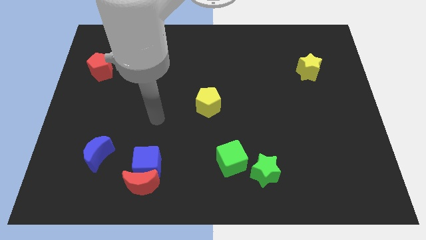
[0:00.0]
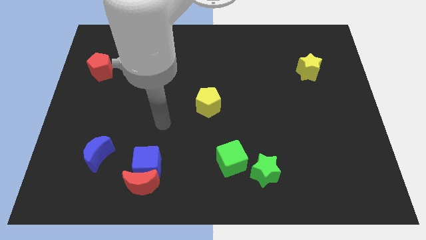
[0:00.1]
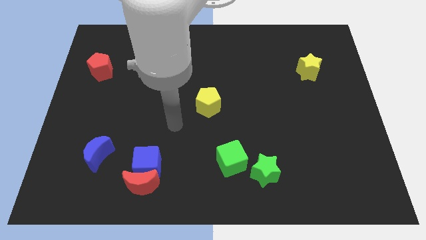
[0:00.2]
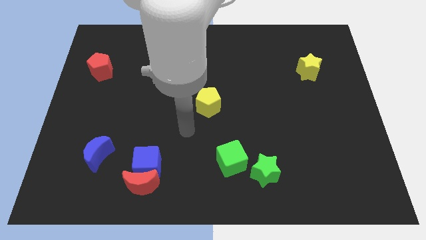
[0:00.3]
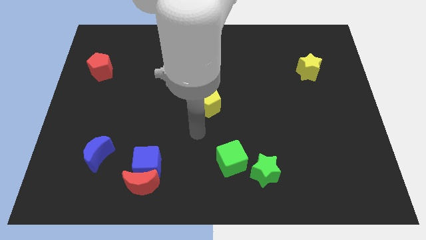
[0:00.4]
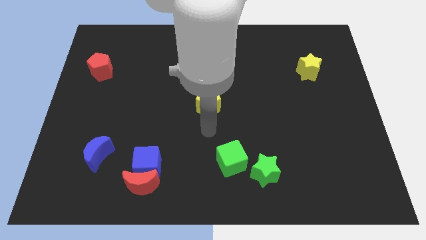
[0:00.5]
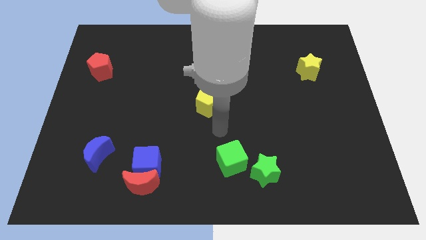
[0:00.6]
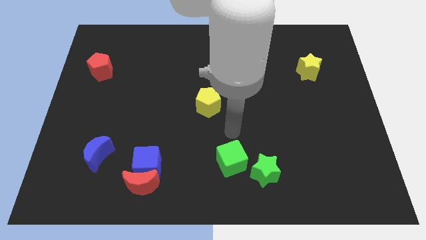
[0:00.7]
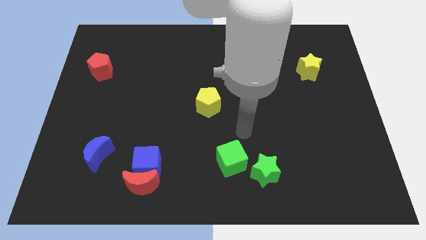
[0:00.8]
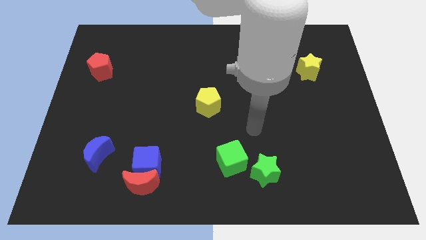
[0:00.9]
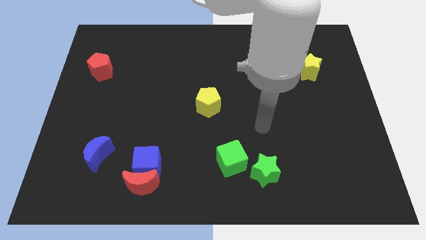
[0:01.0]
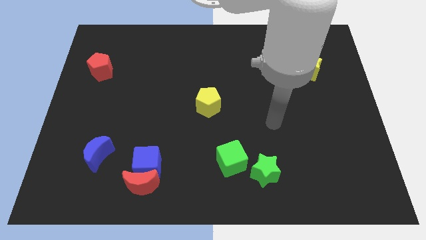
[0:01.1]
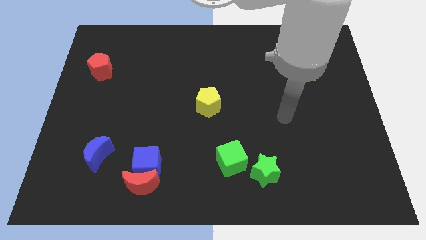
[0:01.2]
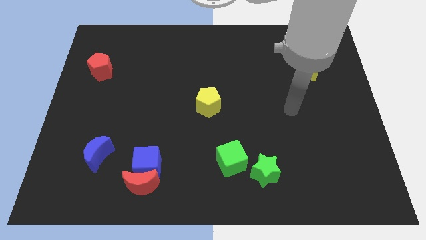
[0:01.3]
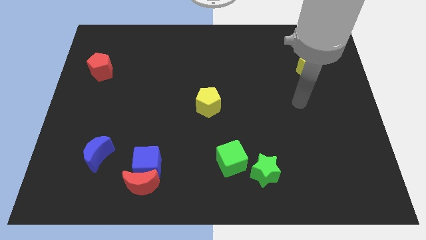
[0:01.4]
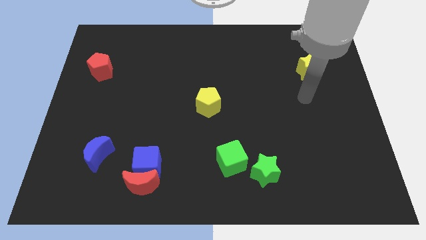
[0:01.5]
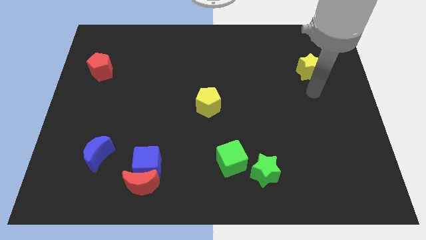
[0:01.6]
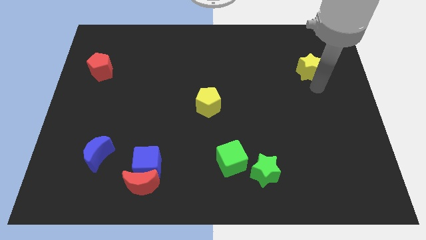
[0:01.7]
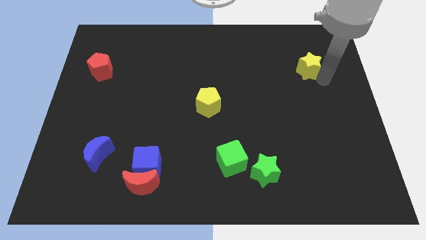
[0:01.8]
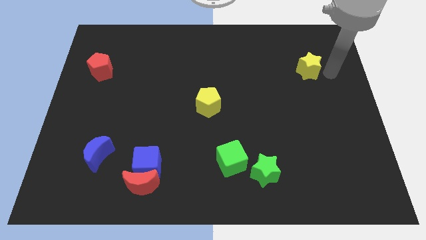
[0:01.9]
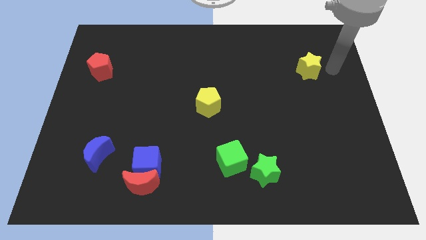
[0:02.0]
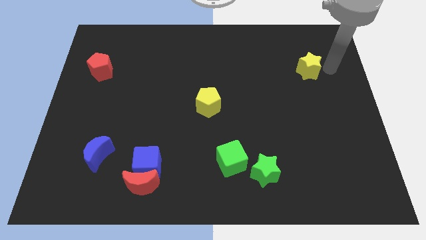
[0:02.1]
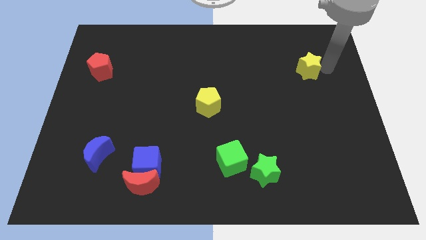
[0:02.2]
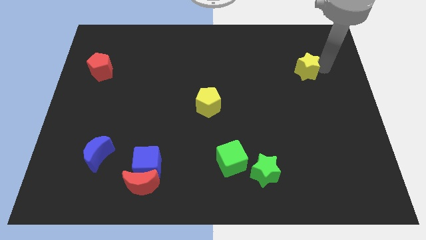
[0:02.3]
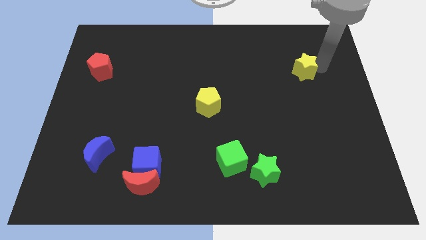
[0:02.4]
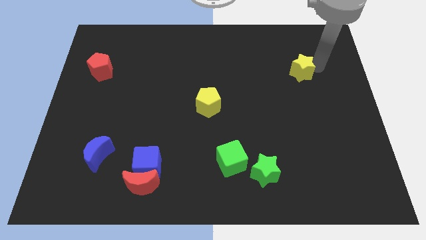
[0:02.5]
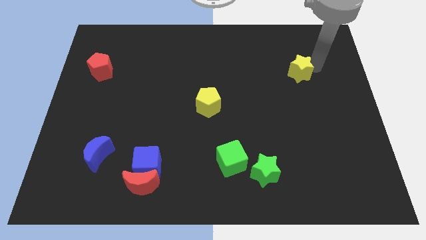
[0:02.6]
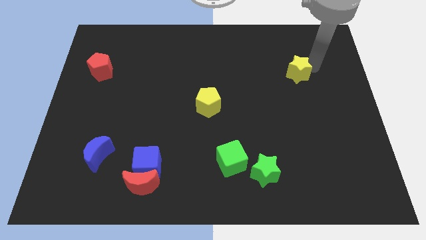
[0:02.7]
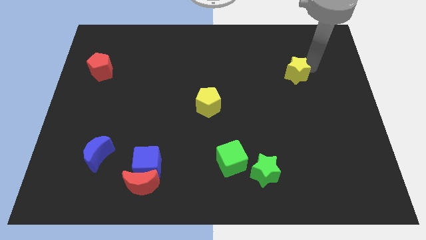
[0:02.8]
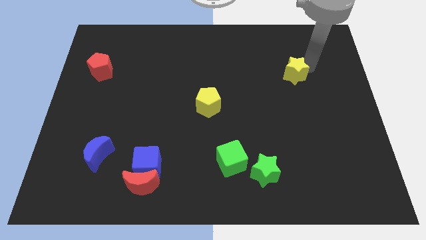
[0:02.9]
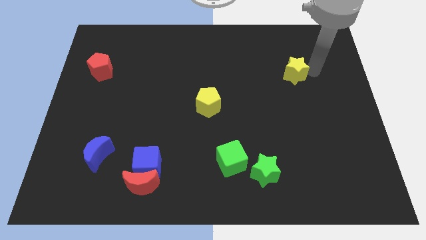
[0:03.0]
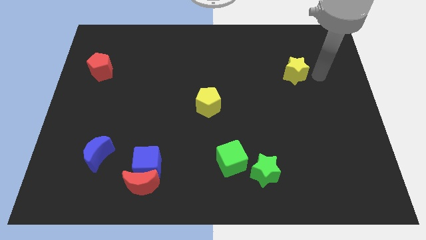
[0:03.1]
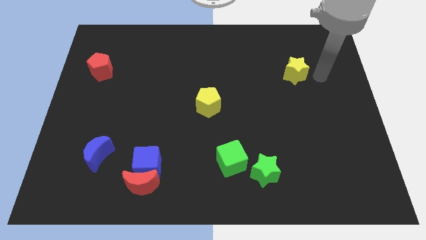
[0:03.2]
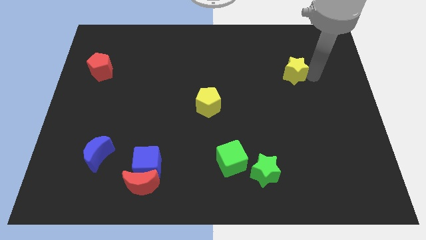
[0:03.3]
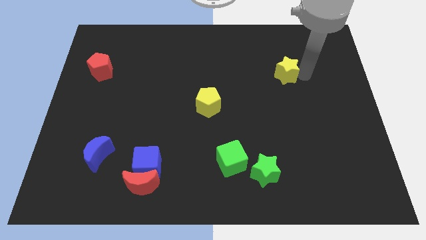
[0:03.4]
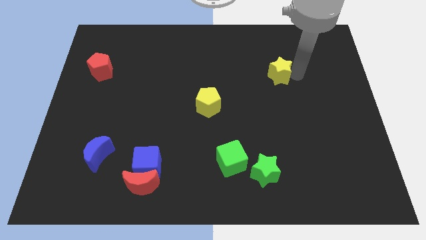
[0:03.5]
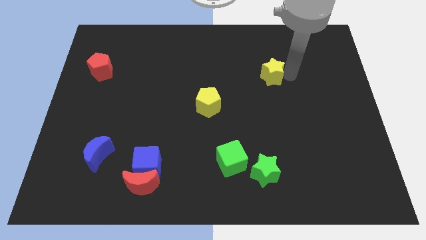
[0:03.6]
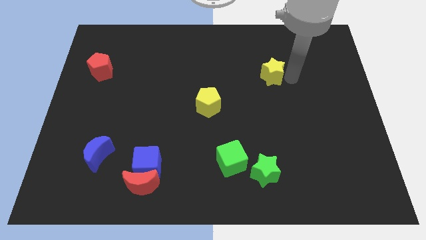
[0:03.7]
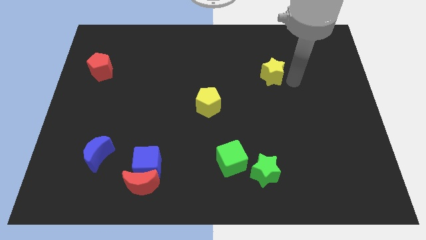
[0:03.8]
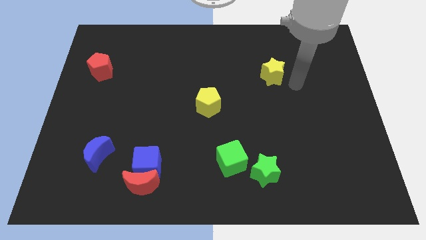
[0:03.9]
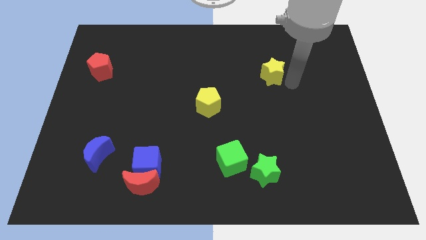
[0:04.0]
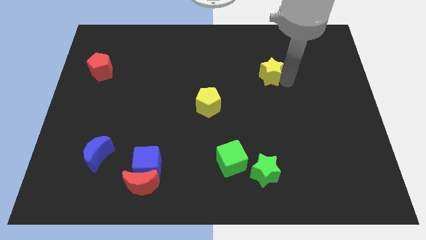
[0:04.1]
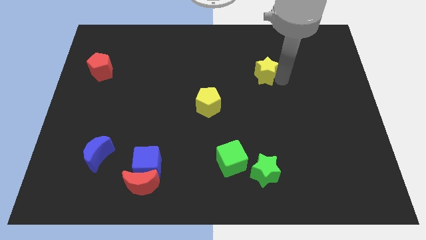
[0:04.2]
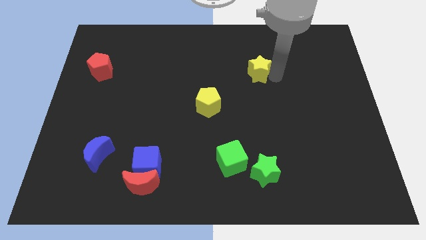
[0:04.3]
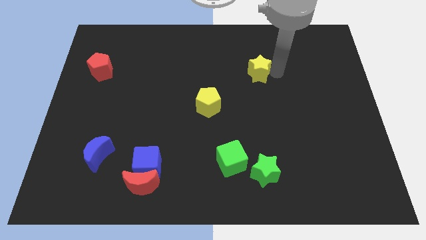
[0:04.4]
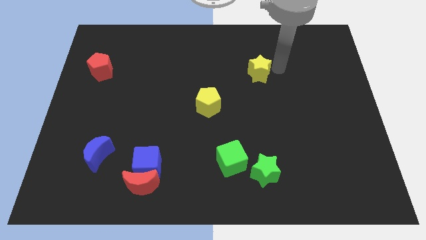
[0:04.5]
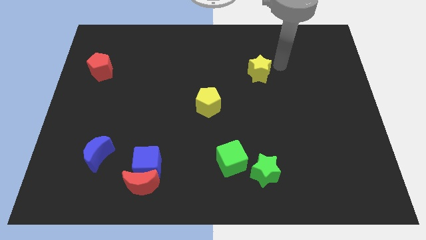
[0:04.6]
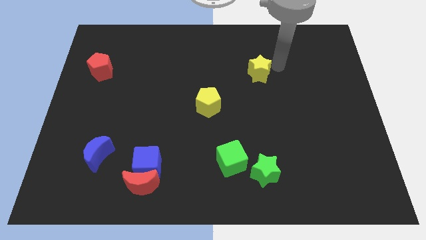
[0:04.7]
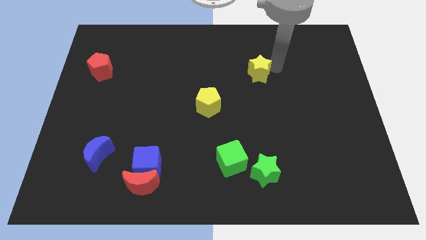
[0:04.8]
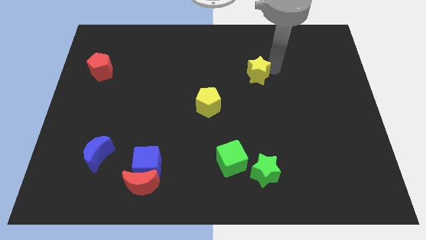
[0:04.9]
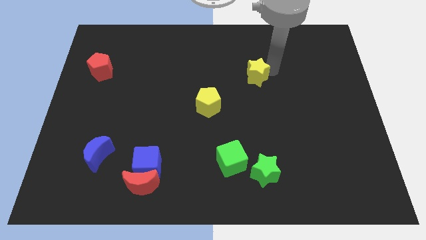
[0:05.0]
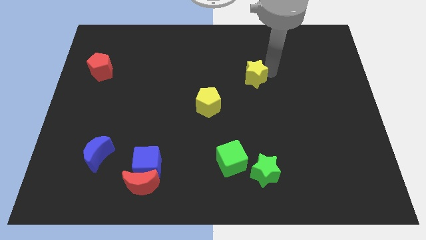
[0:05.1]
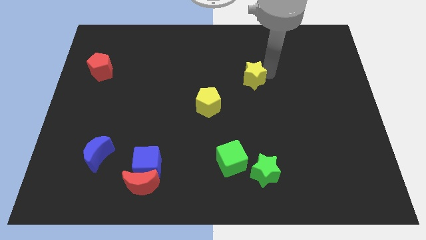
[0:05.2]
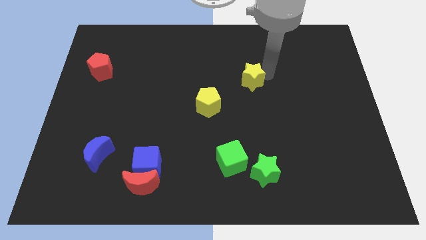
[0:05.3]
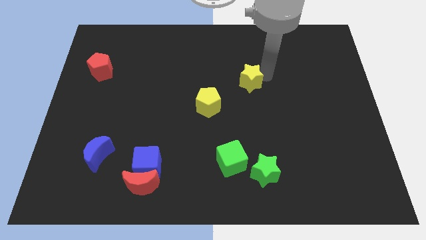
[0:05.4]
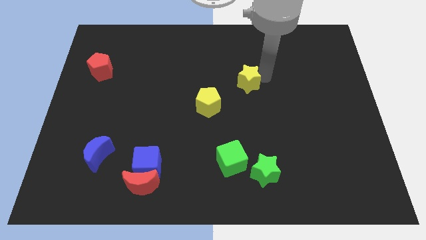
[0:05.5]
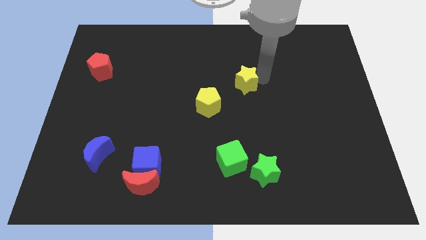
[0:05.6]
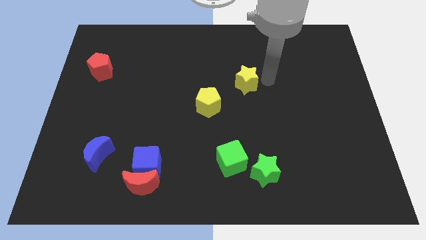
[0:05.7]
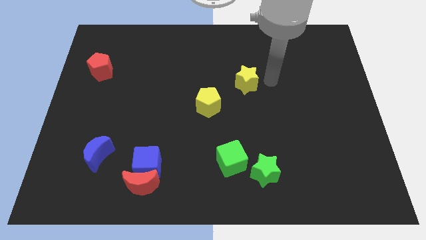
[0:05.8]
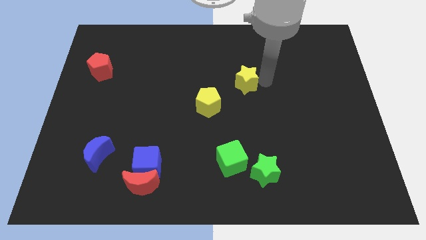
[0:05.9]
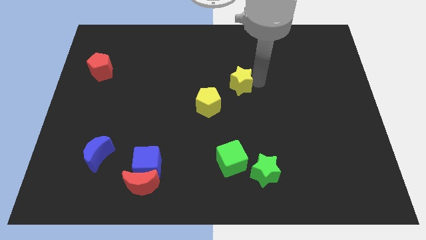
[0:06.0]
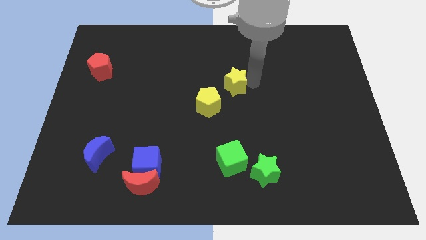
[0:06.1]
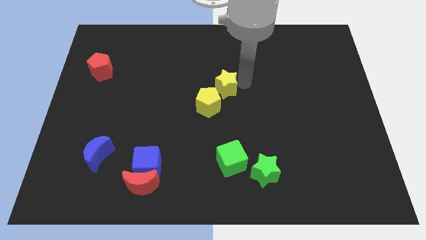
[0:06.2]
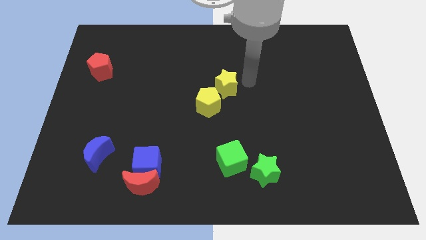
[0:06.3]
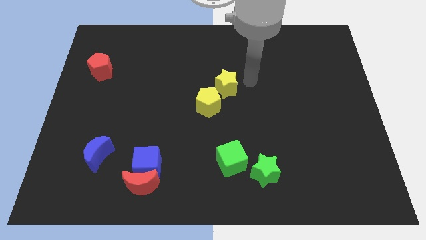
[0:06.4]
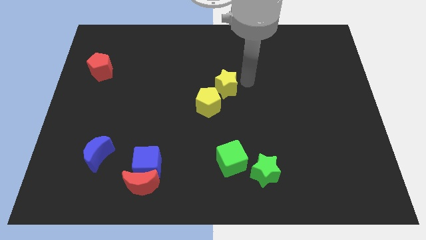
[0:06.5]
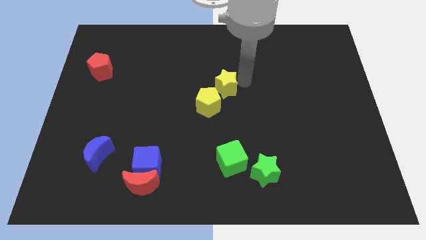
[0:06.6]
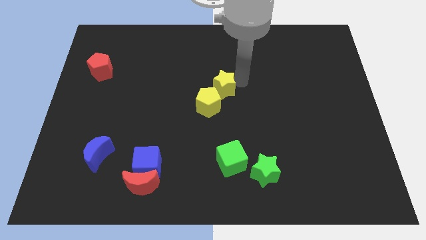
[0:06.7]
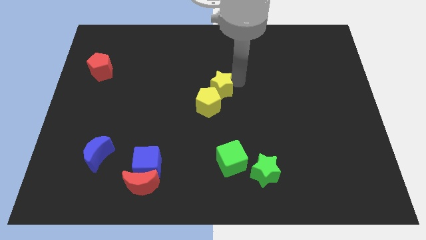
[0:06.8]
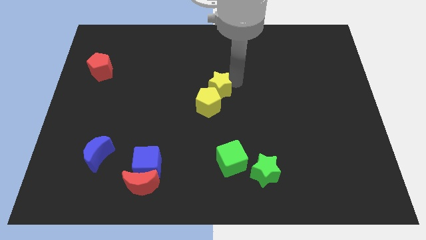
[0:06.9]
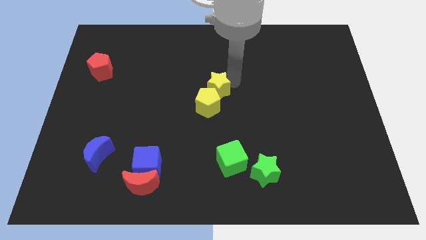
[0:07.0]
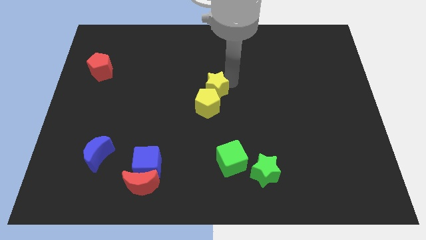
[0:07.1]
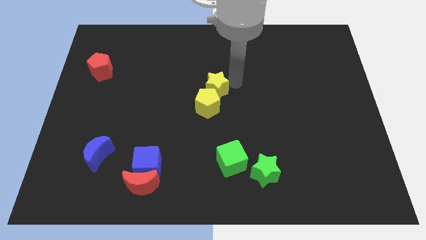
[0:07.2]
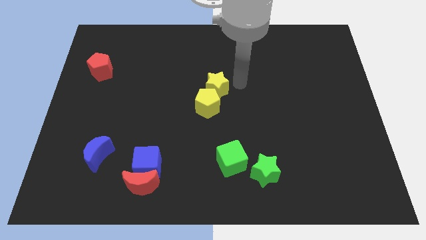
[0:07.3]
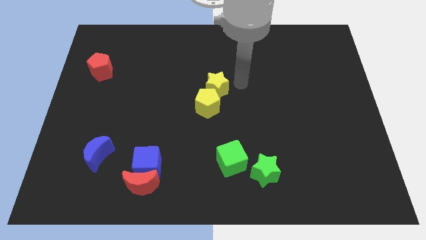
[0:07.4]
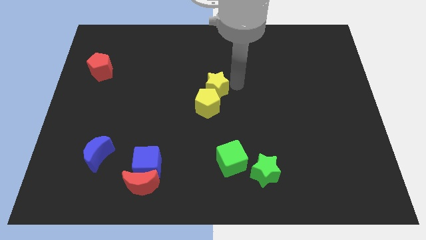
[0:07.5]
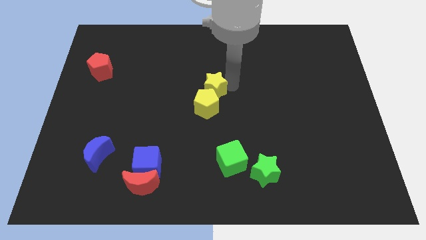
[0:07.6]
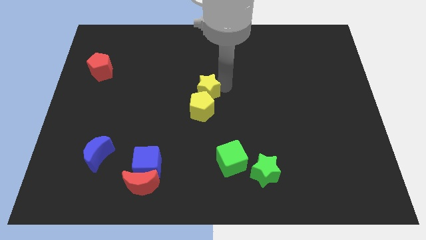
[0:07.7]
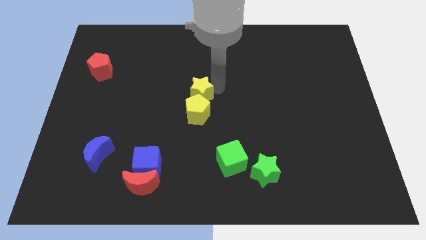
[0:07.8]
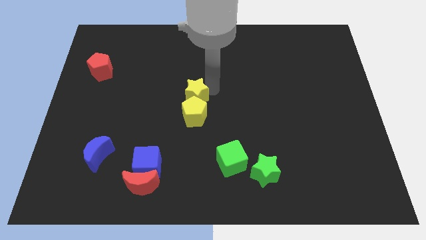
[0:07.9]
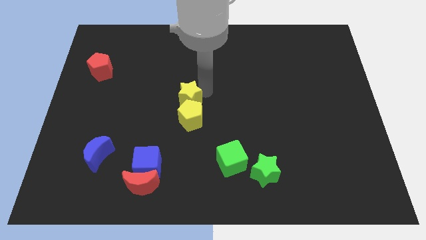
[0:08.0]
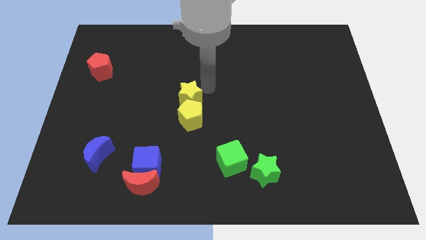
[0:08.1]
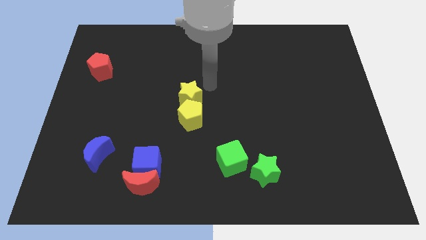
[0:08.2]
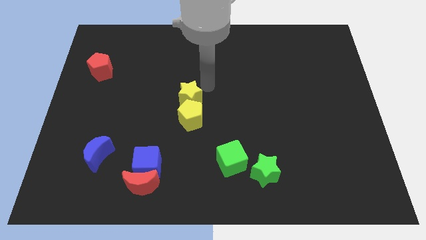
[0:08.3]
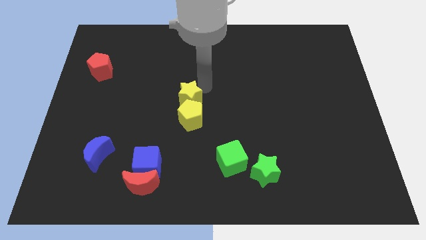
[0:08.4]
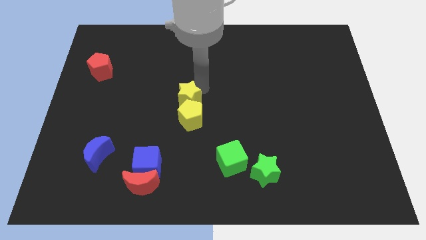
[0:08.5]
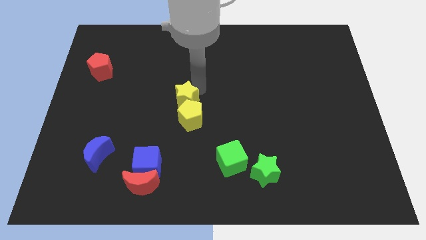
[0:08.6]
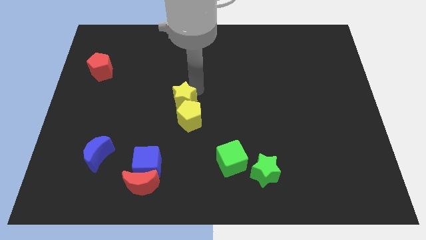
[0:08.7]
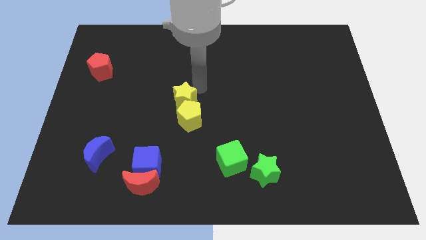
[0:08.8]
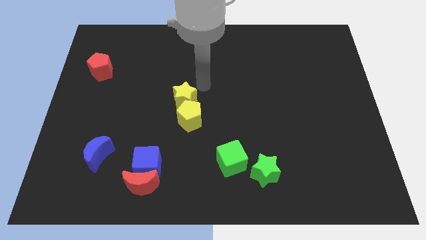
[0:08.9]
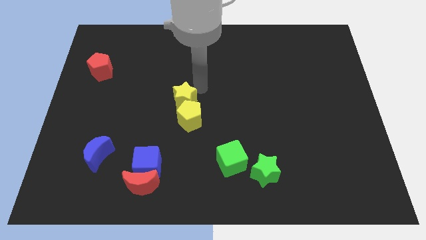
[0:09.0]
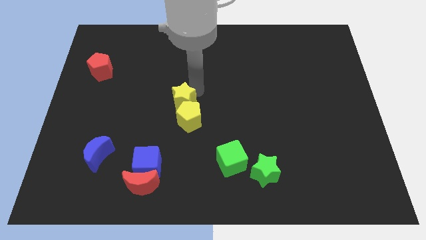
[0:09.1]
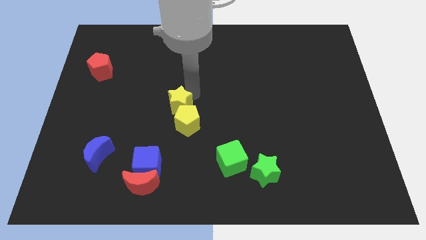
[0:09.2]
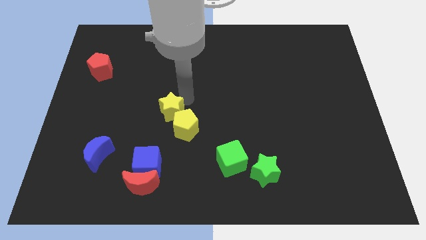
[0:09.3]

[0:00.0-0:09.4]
put the yellow star above the blue cube
